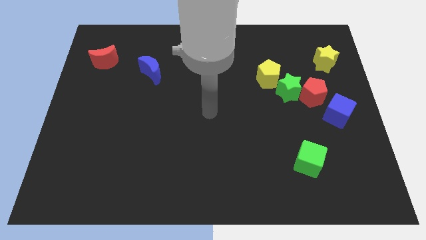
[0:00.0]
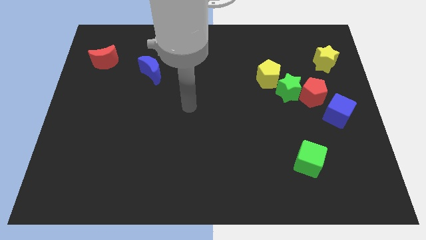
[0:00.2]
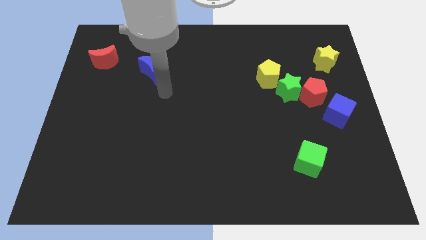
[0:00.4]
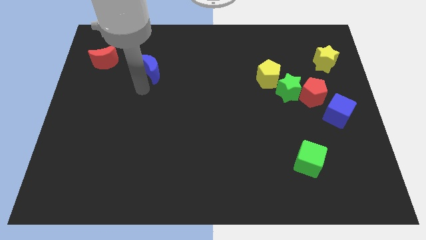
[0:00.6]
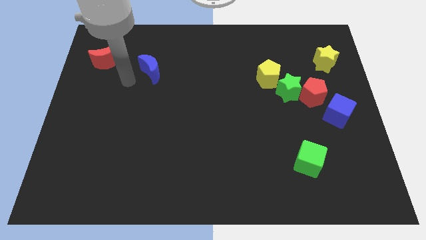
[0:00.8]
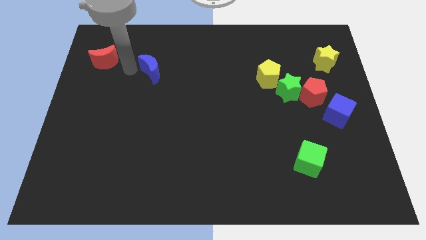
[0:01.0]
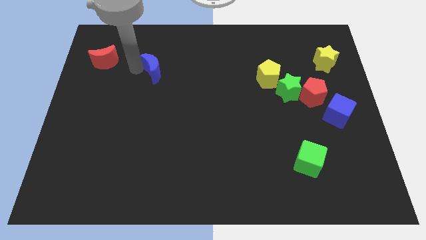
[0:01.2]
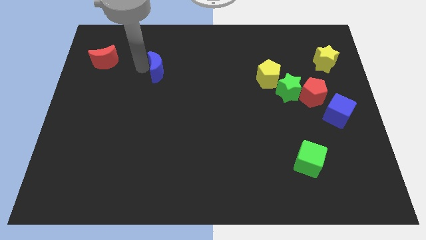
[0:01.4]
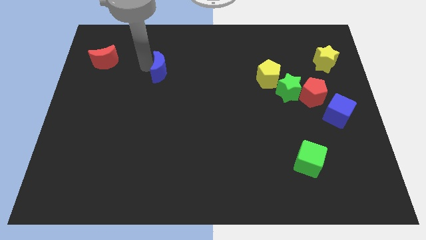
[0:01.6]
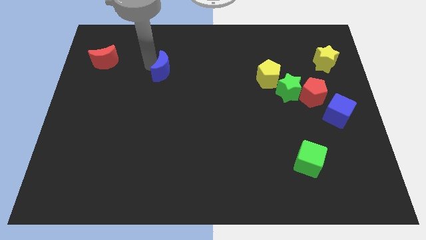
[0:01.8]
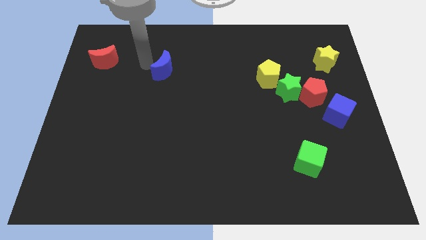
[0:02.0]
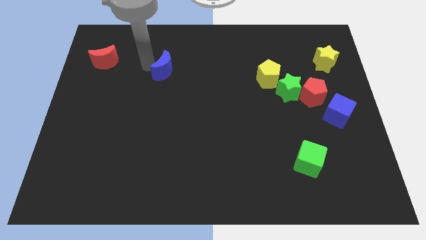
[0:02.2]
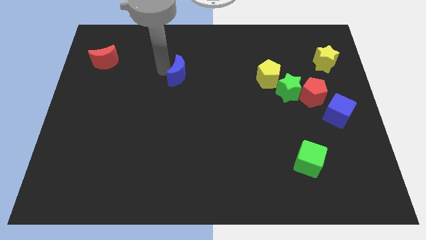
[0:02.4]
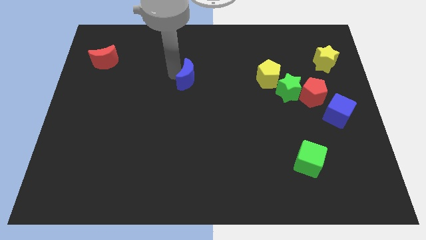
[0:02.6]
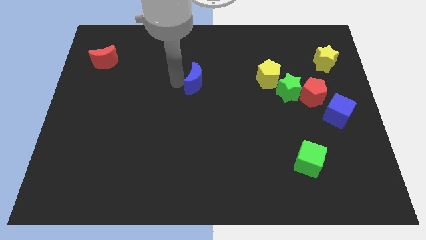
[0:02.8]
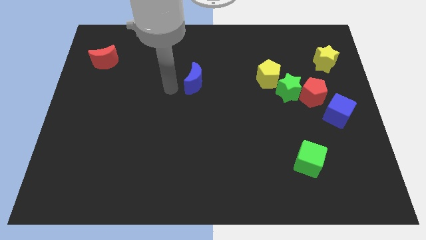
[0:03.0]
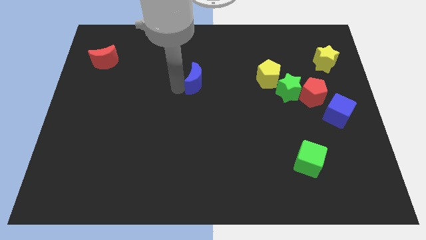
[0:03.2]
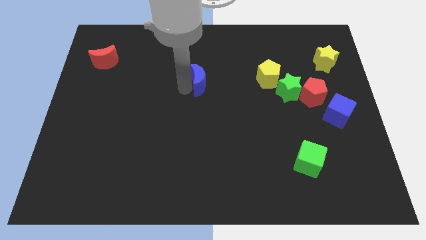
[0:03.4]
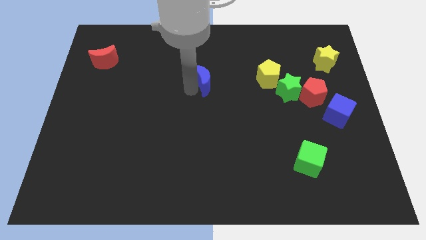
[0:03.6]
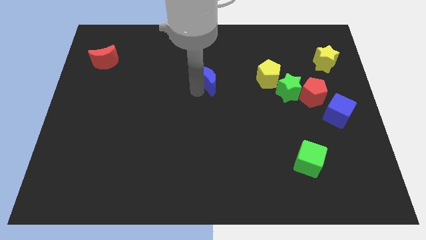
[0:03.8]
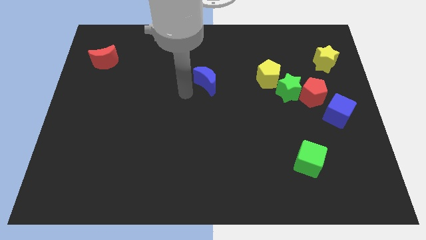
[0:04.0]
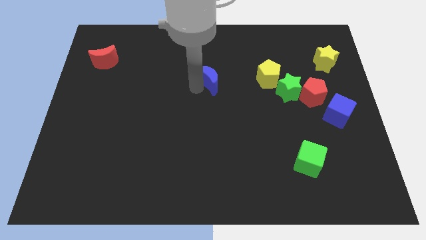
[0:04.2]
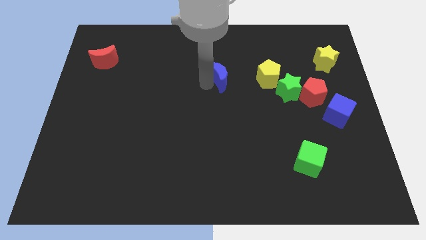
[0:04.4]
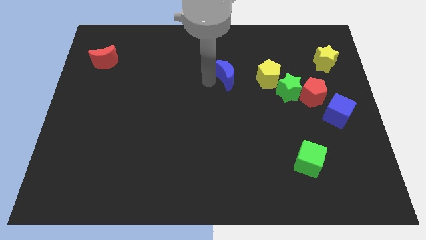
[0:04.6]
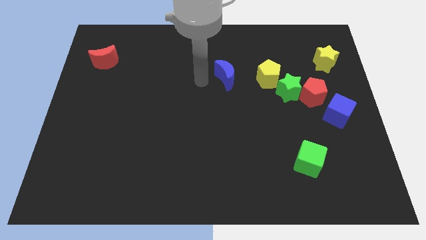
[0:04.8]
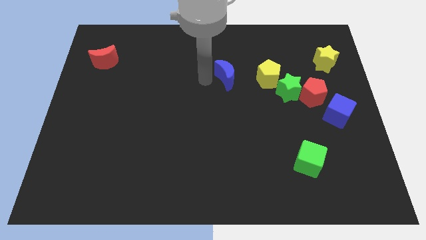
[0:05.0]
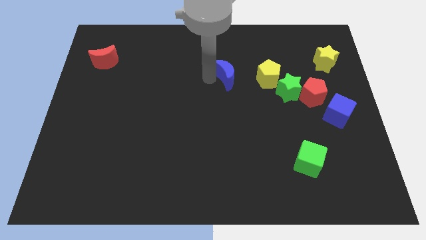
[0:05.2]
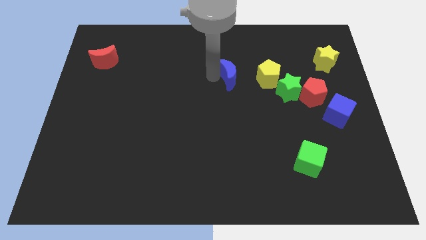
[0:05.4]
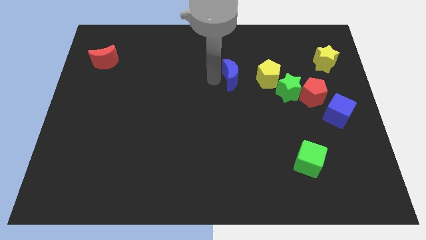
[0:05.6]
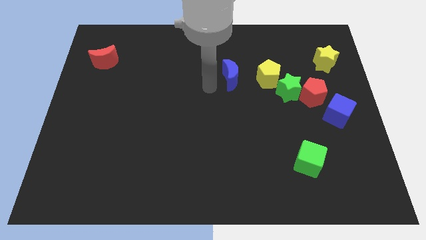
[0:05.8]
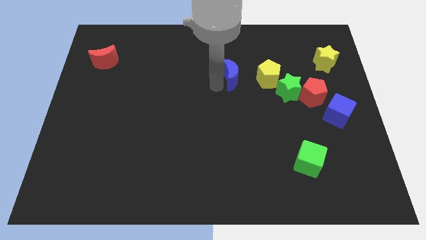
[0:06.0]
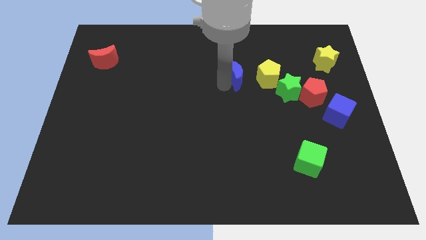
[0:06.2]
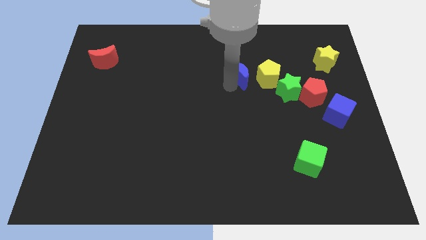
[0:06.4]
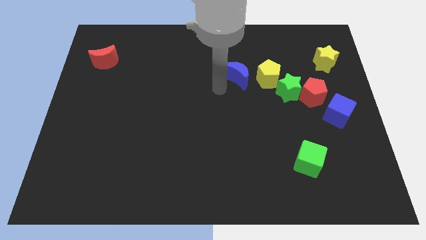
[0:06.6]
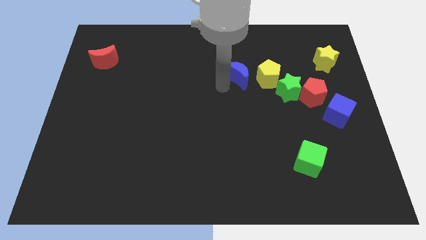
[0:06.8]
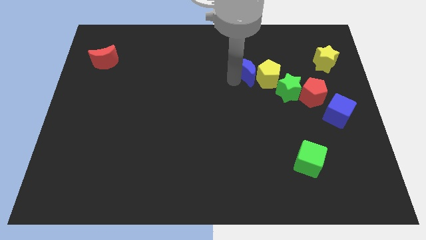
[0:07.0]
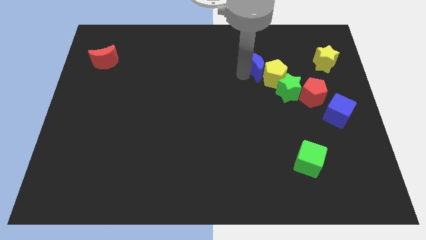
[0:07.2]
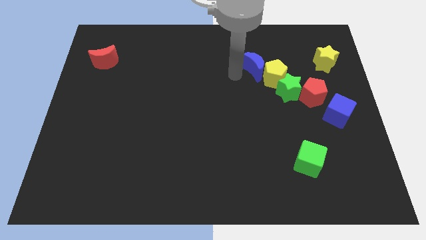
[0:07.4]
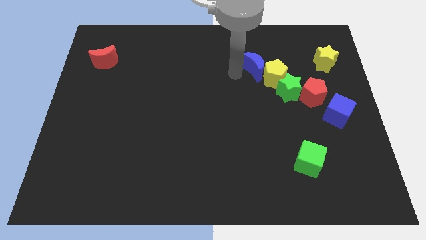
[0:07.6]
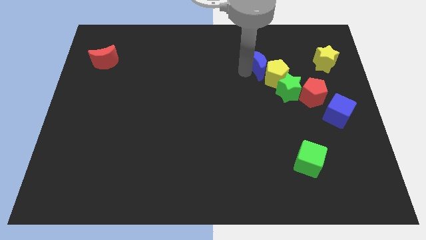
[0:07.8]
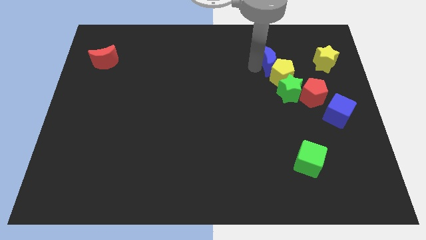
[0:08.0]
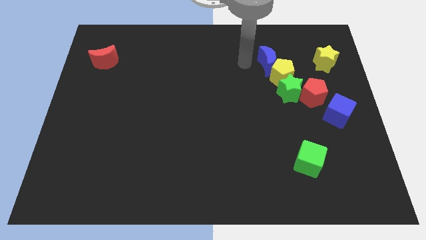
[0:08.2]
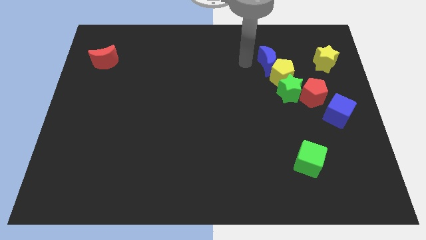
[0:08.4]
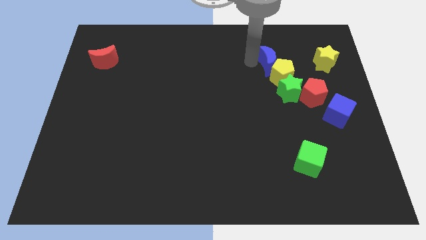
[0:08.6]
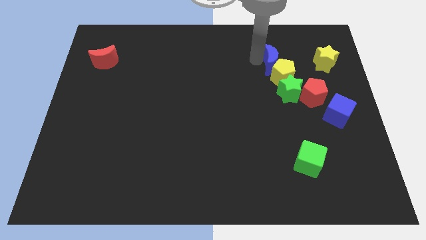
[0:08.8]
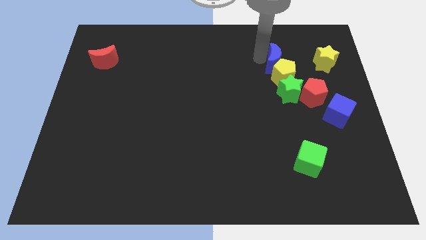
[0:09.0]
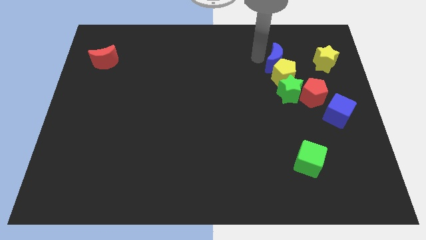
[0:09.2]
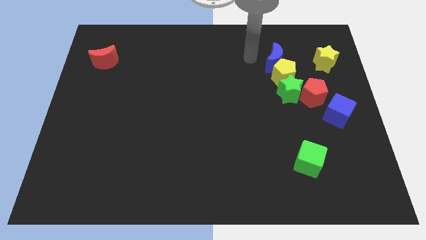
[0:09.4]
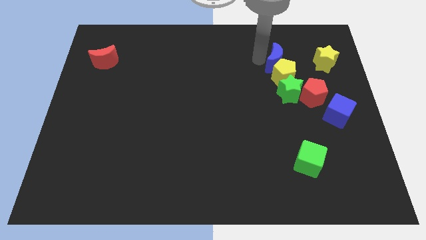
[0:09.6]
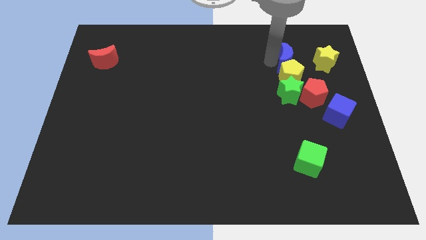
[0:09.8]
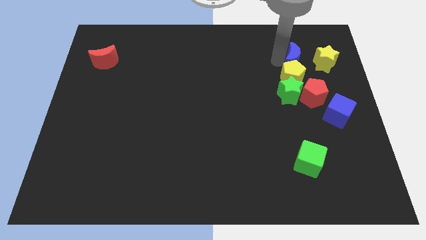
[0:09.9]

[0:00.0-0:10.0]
move the blue moon to the top of the red pentagon

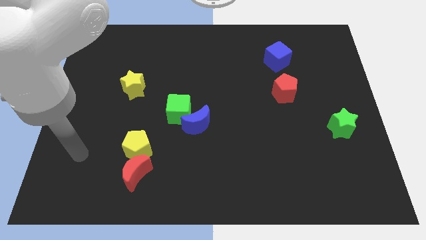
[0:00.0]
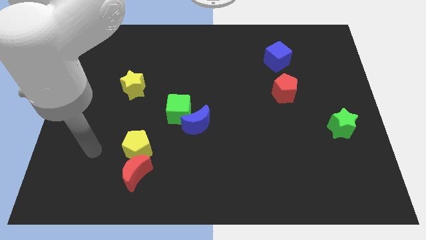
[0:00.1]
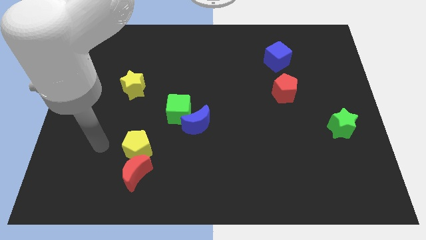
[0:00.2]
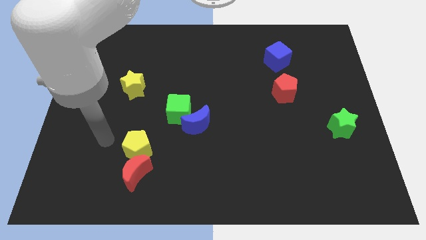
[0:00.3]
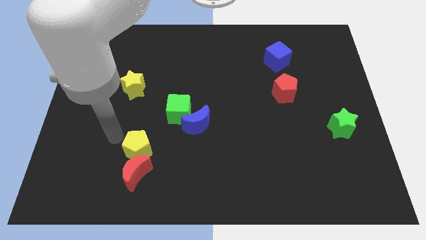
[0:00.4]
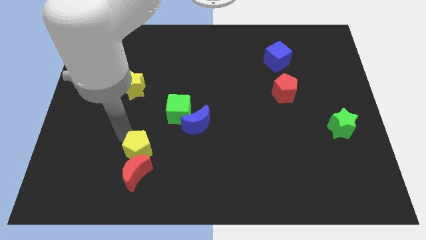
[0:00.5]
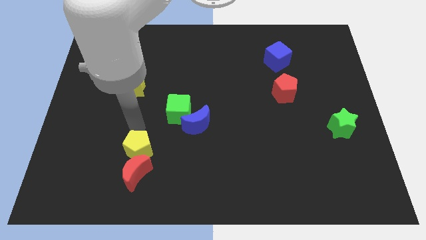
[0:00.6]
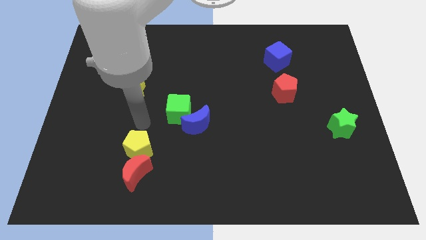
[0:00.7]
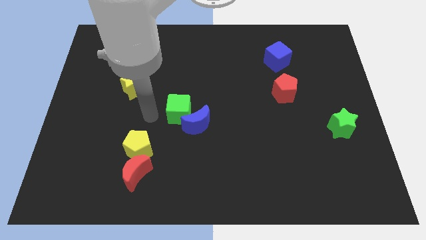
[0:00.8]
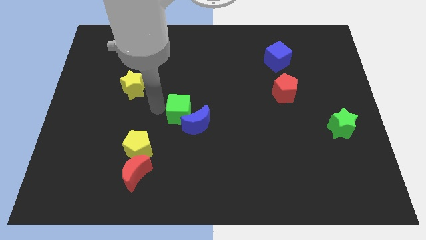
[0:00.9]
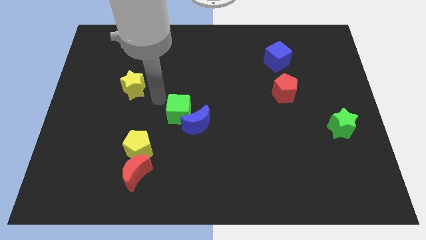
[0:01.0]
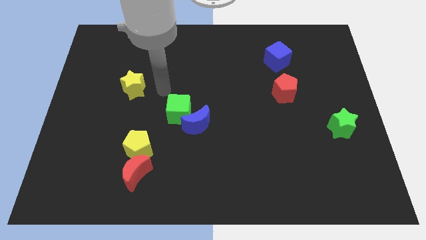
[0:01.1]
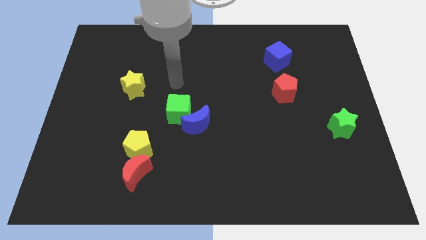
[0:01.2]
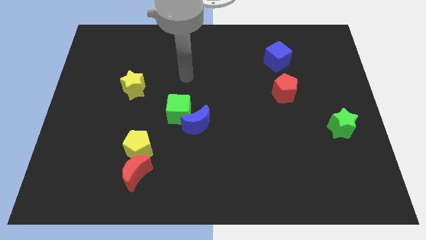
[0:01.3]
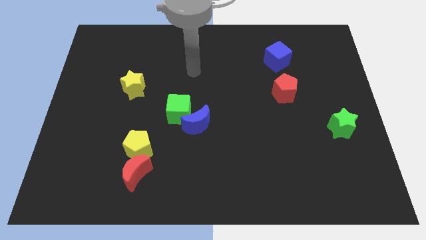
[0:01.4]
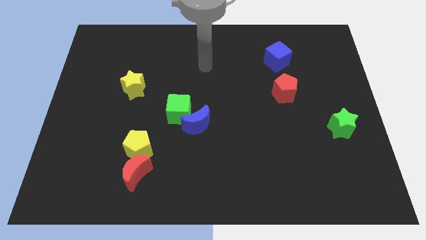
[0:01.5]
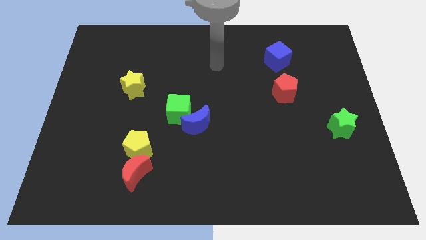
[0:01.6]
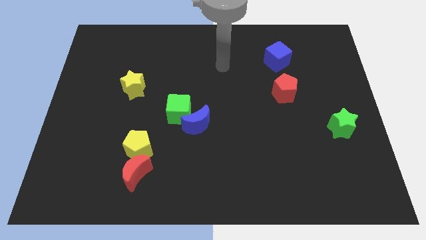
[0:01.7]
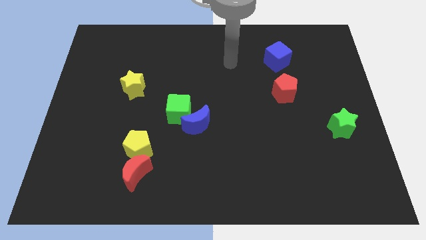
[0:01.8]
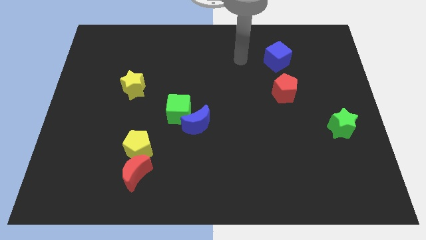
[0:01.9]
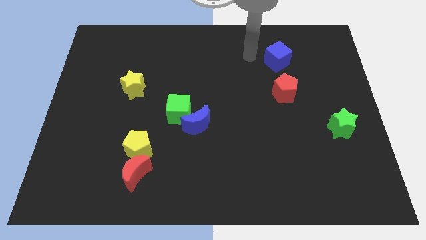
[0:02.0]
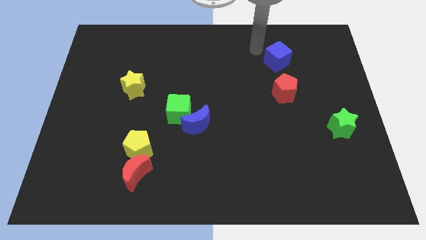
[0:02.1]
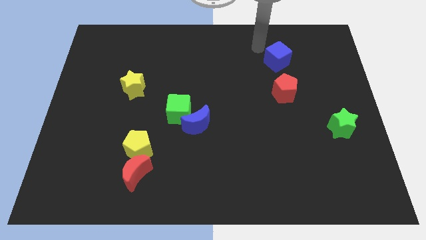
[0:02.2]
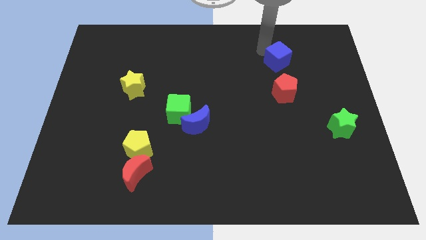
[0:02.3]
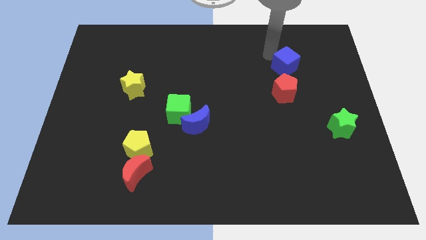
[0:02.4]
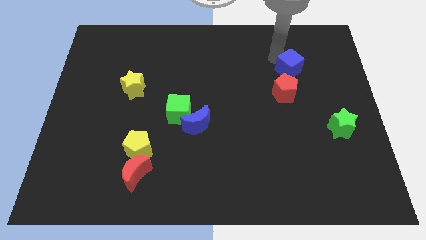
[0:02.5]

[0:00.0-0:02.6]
put the blue cube to the top right of the red pentagon
